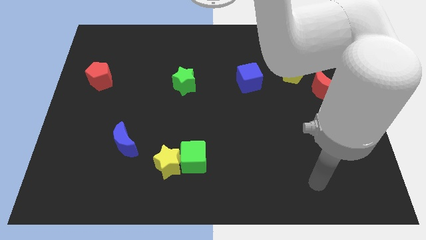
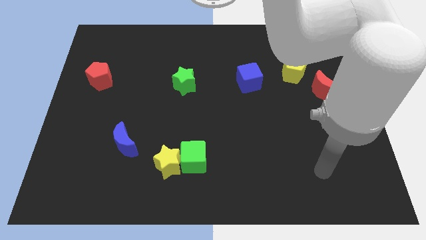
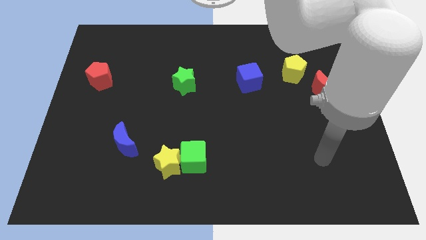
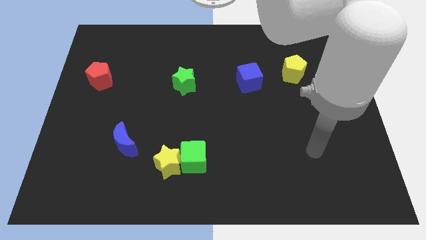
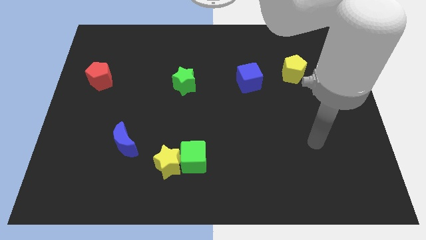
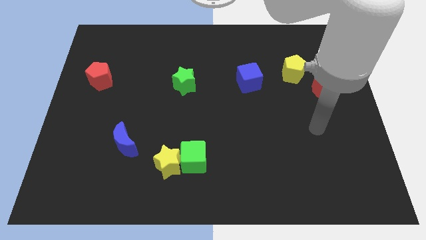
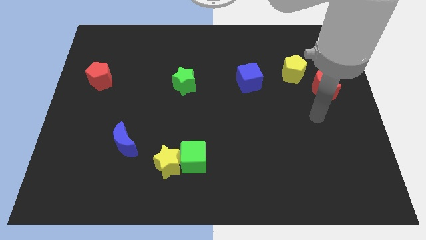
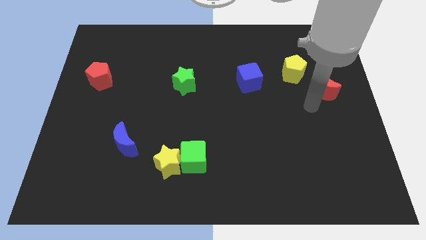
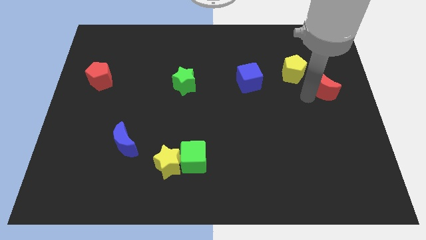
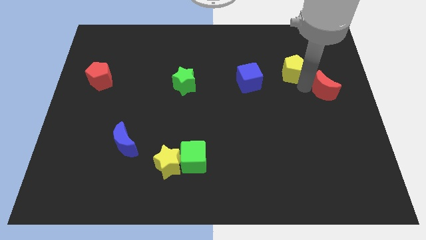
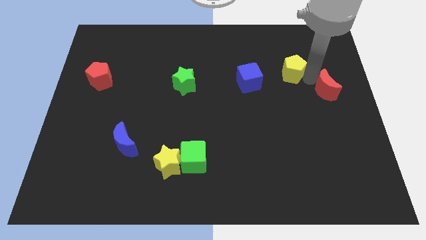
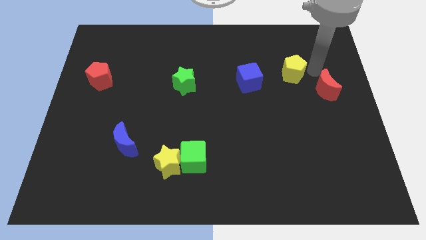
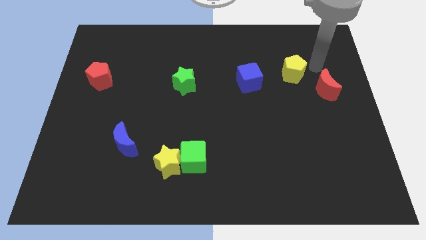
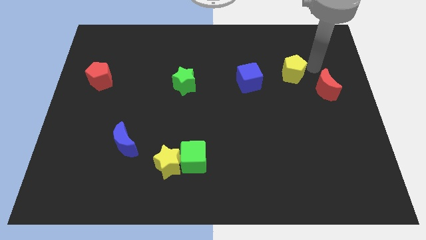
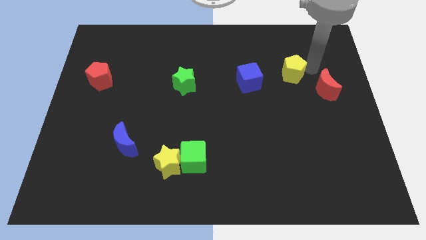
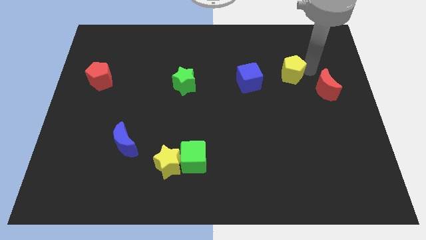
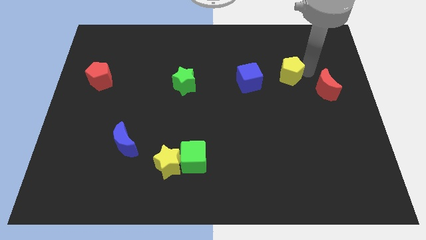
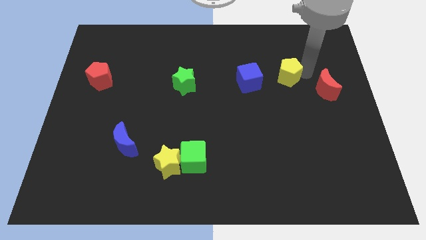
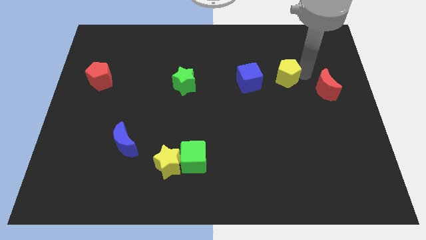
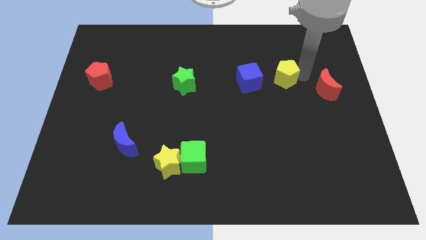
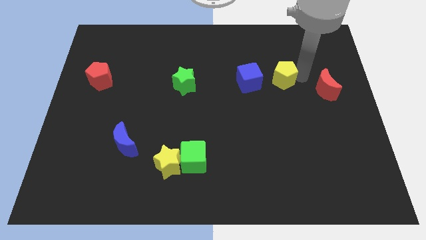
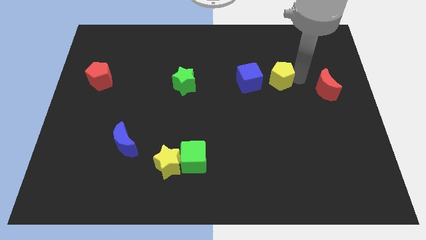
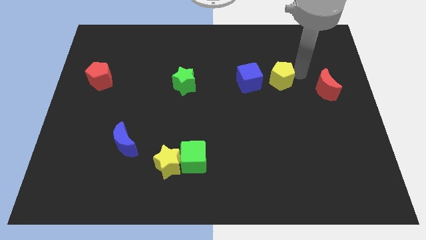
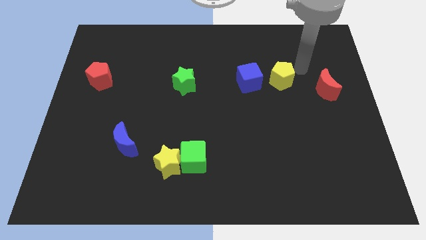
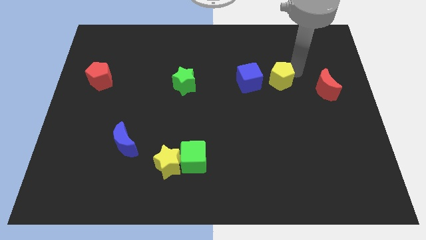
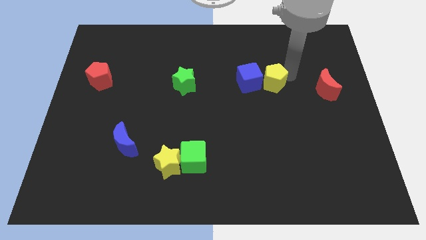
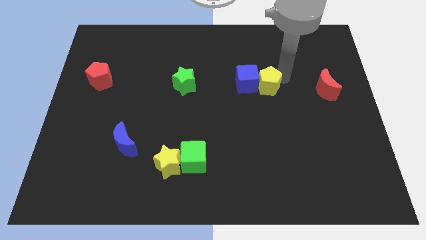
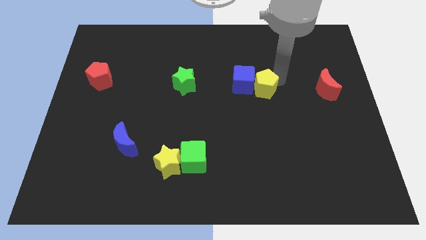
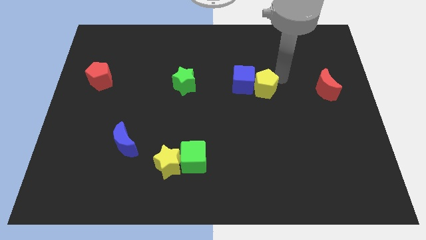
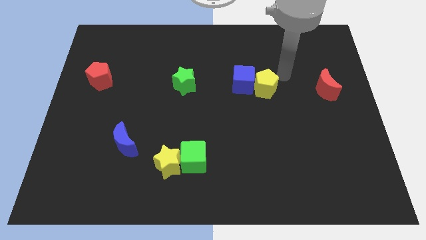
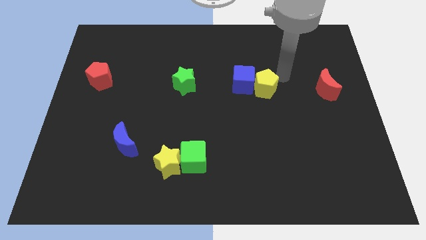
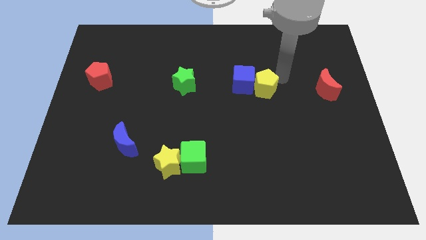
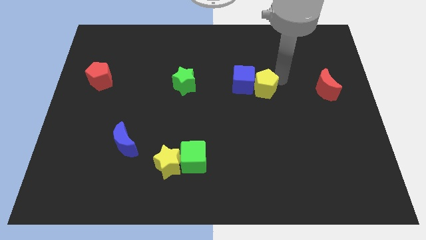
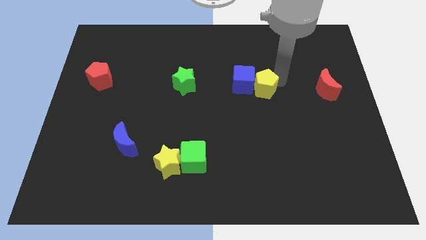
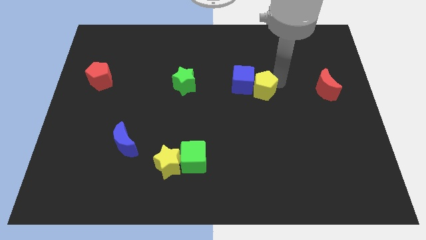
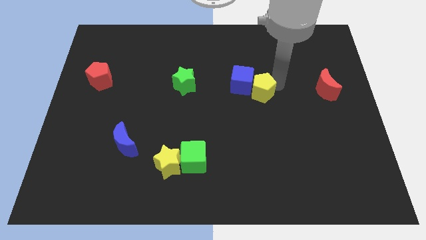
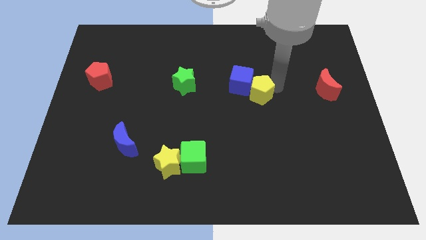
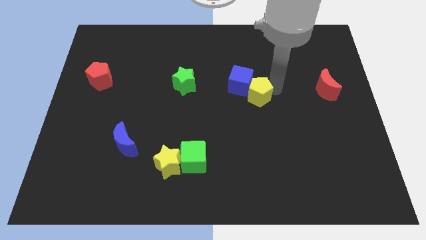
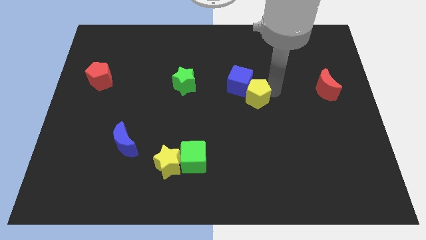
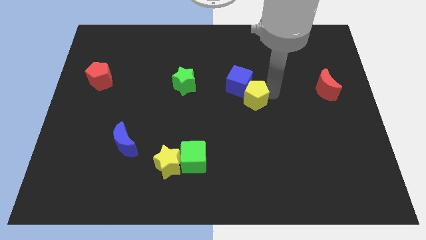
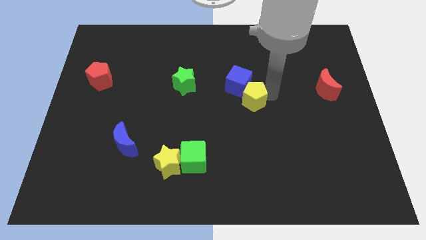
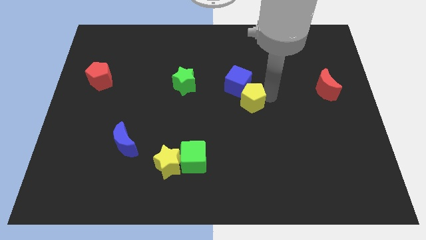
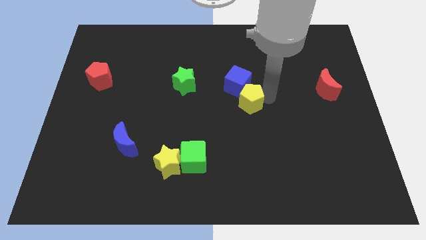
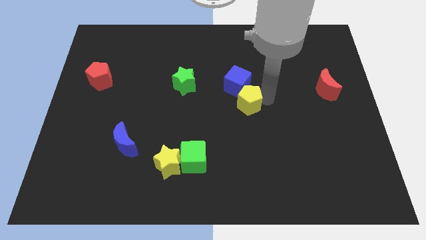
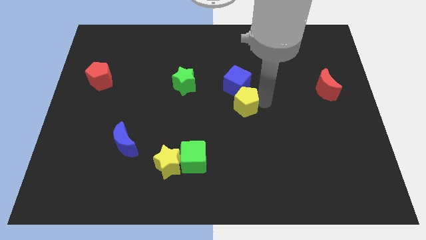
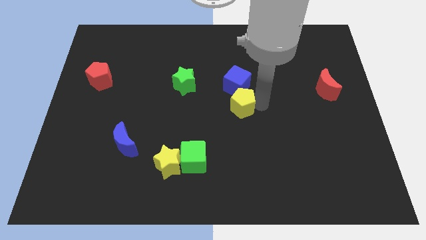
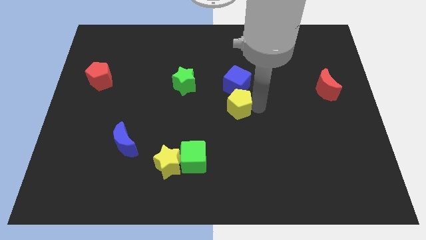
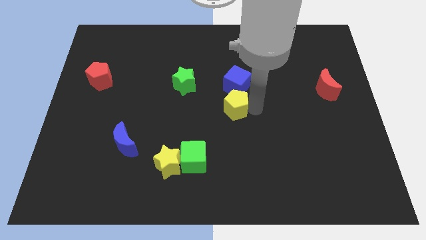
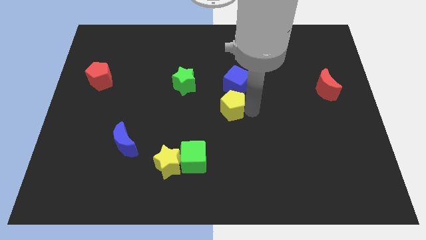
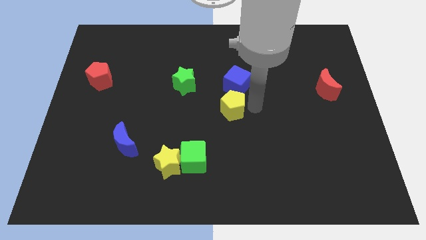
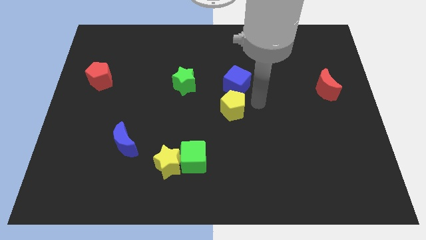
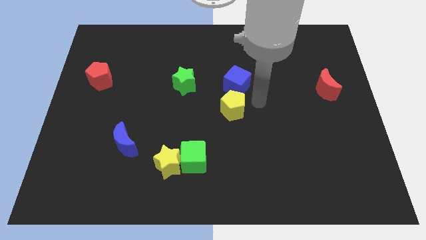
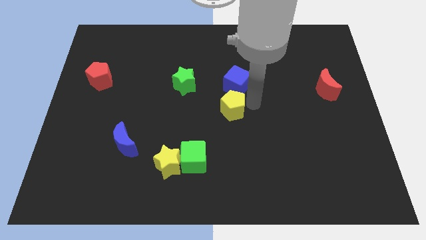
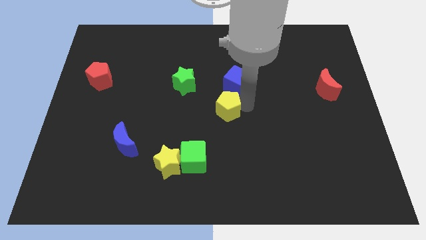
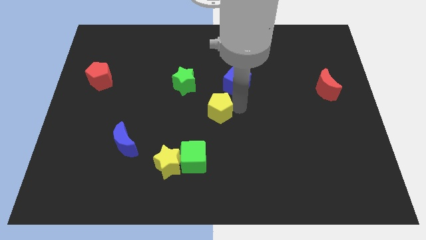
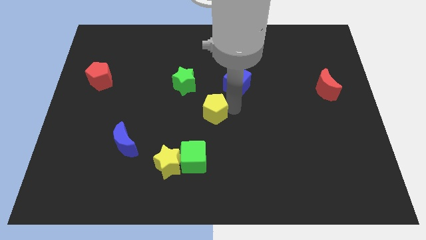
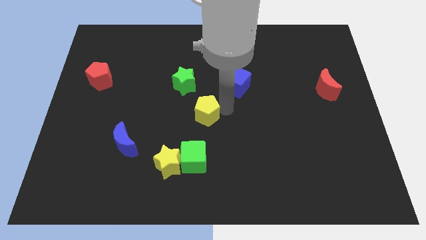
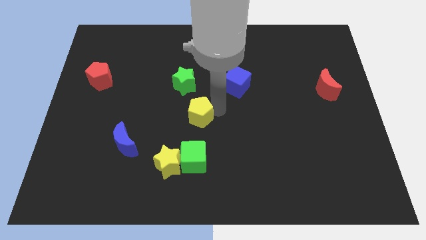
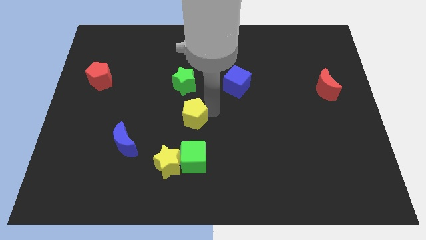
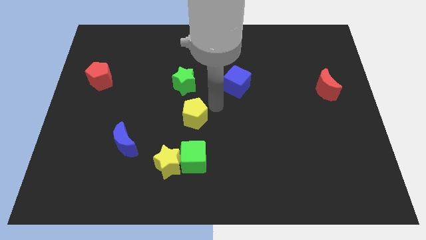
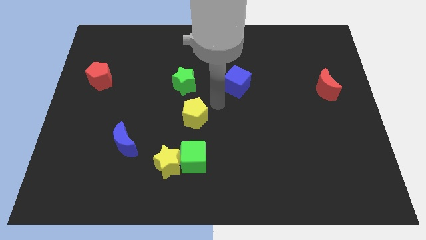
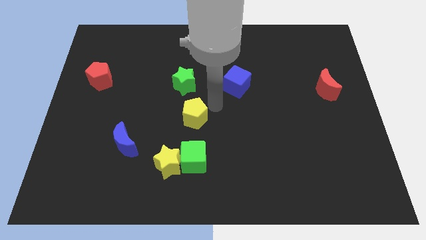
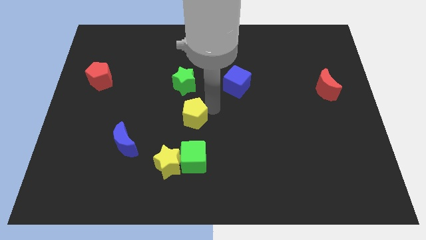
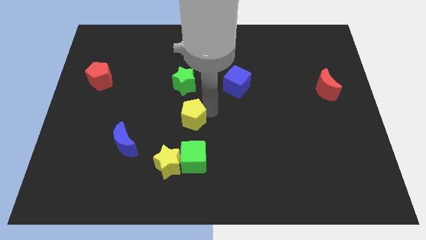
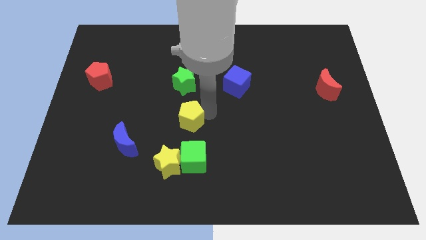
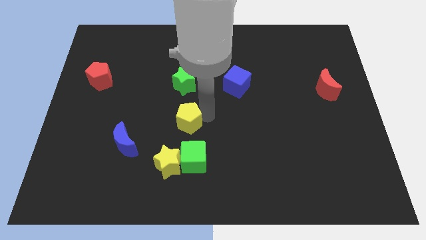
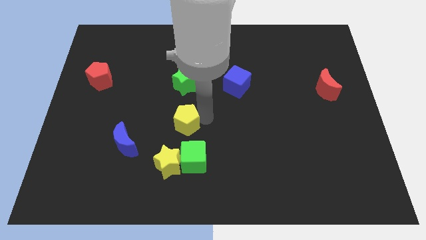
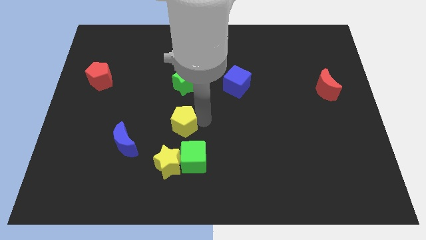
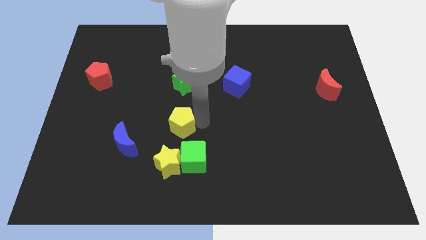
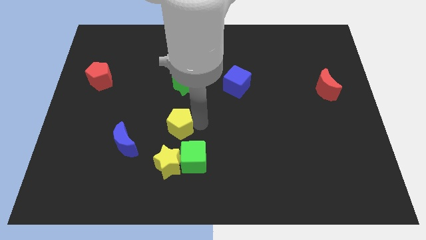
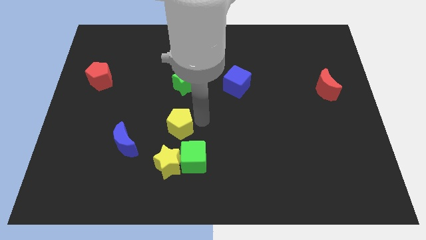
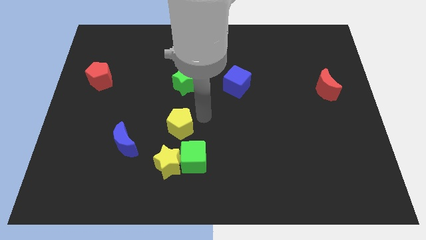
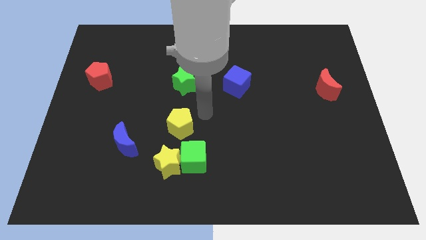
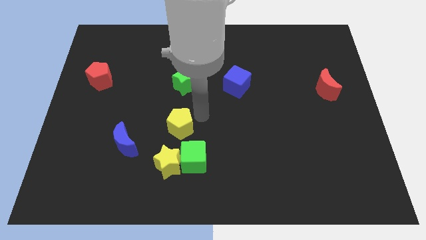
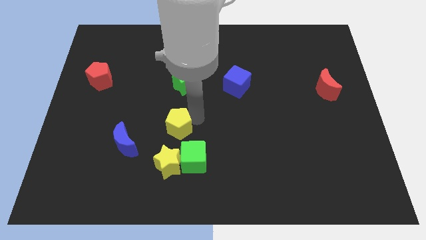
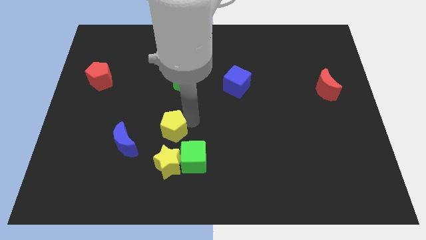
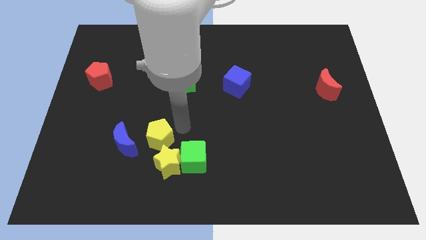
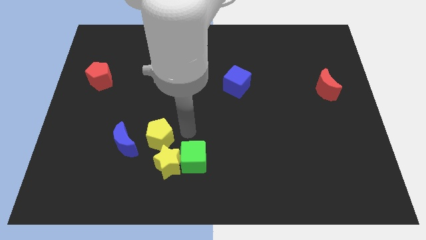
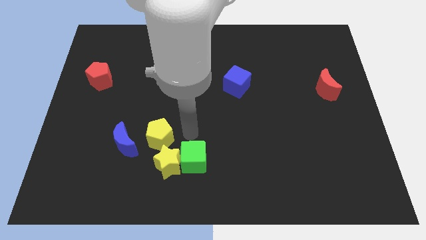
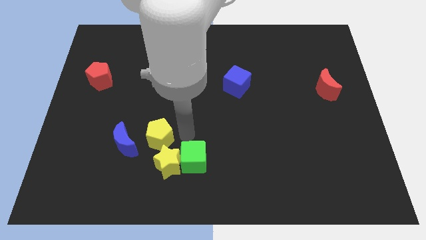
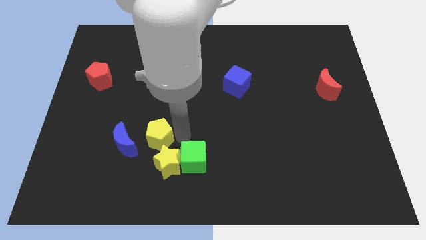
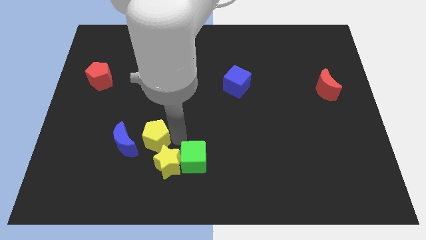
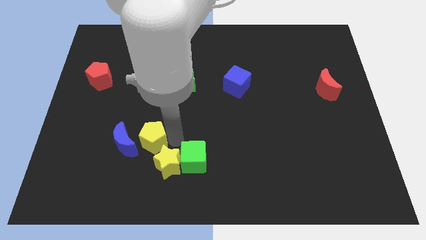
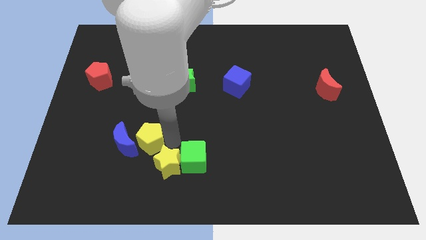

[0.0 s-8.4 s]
put the yellow pentagon towards the blue moon
